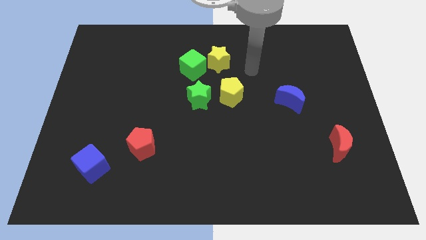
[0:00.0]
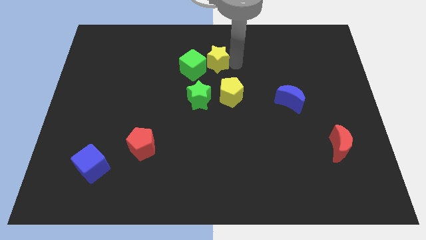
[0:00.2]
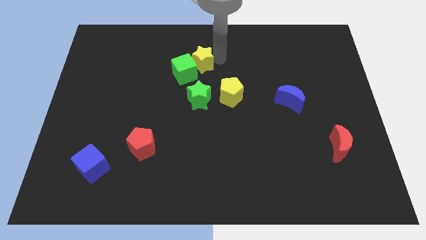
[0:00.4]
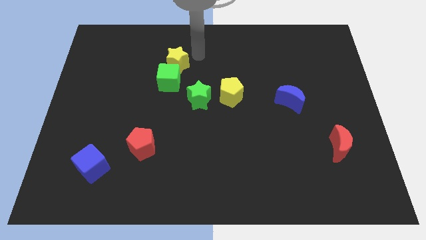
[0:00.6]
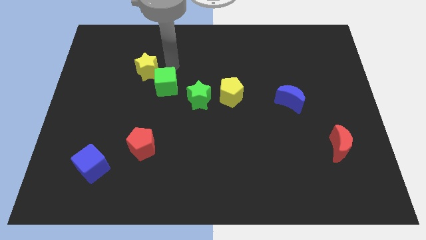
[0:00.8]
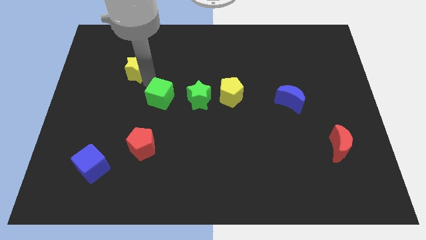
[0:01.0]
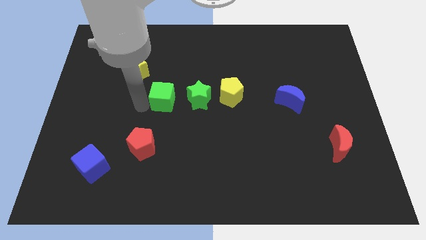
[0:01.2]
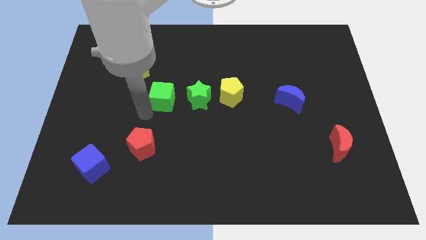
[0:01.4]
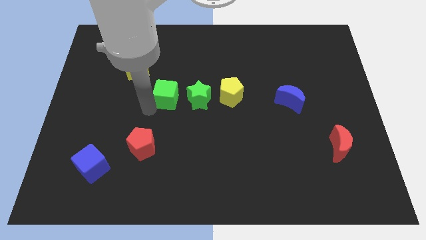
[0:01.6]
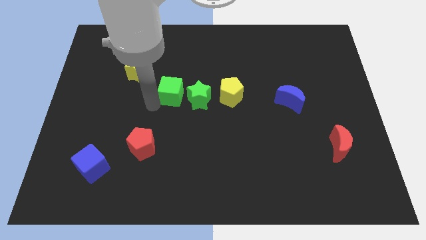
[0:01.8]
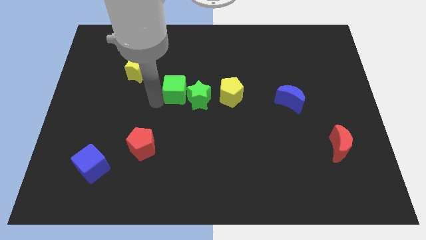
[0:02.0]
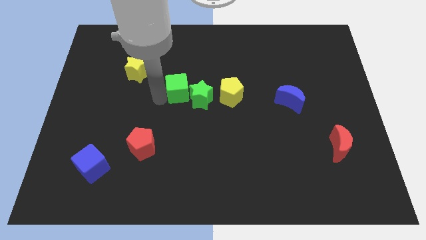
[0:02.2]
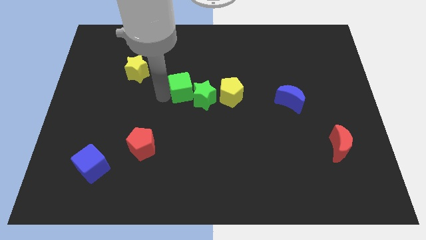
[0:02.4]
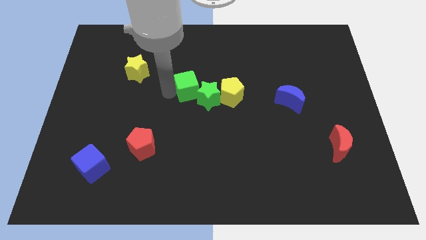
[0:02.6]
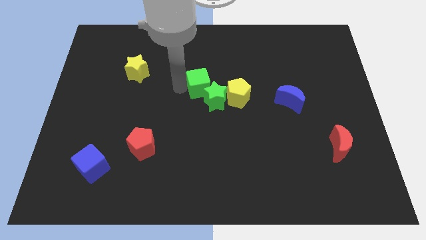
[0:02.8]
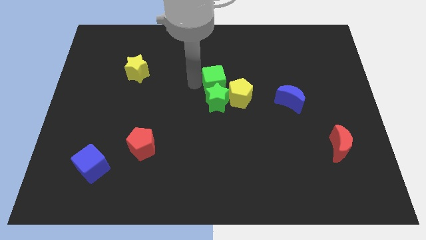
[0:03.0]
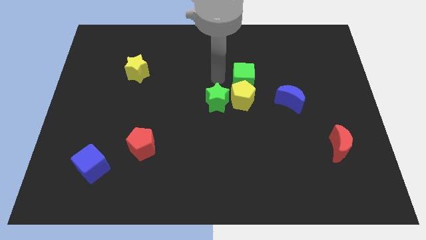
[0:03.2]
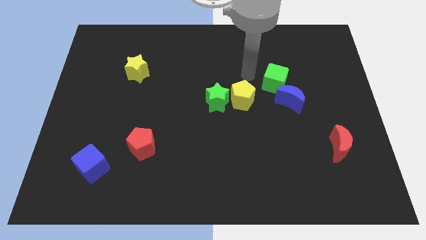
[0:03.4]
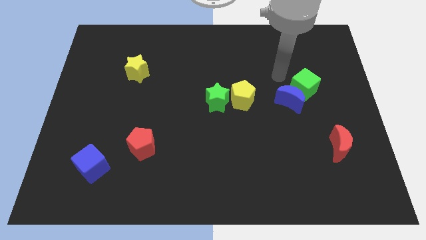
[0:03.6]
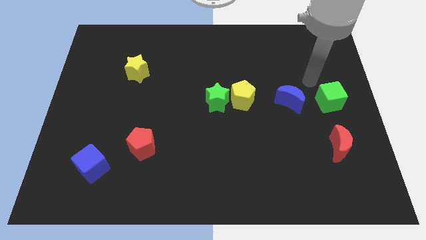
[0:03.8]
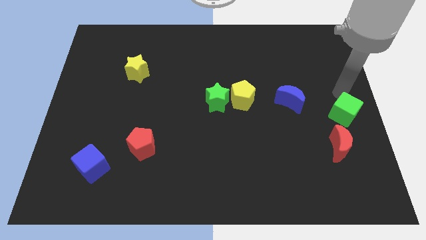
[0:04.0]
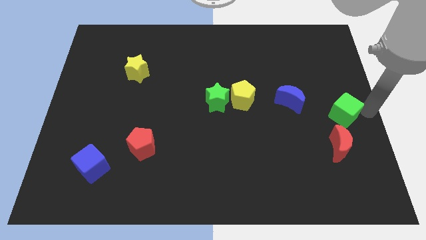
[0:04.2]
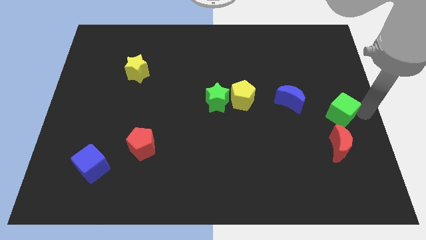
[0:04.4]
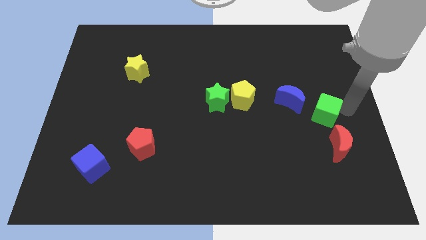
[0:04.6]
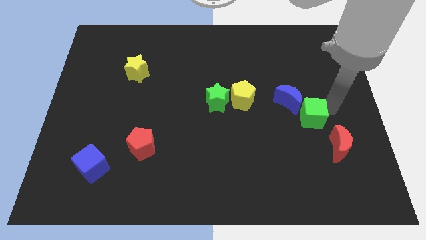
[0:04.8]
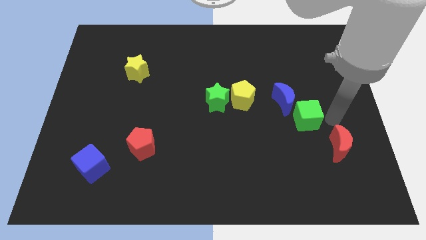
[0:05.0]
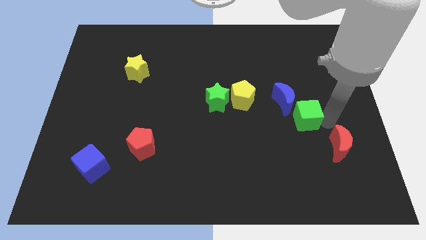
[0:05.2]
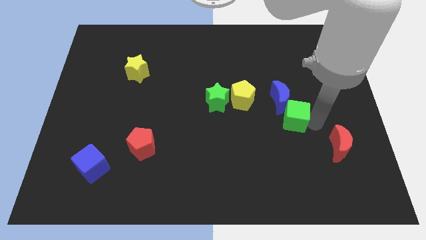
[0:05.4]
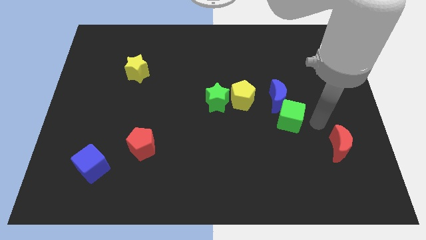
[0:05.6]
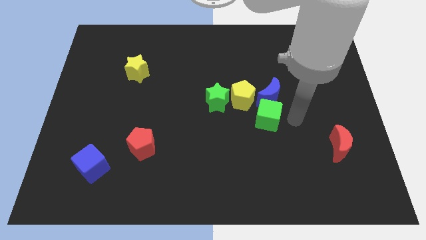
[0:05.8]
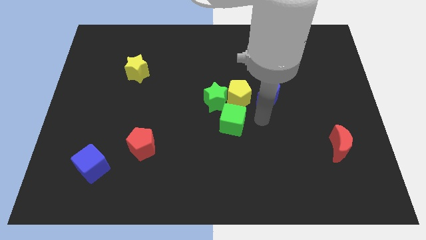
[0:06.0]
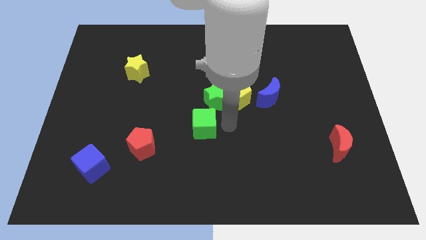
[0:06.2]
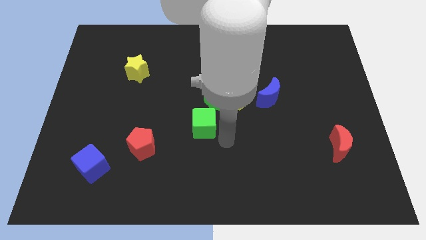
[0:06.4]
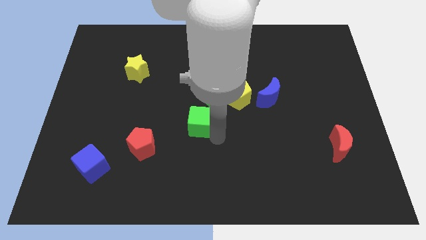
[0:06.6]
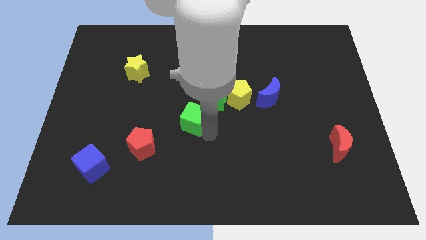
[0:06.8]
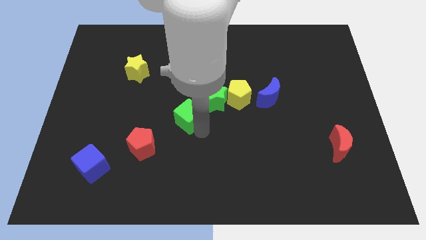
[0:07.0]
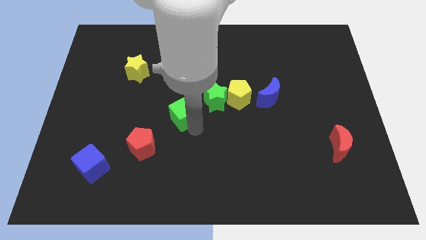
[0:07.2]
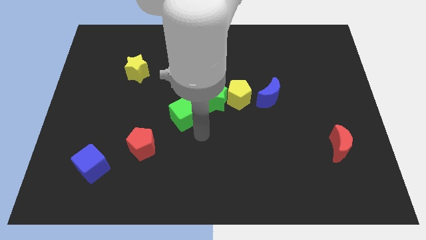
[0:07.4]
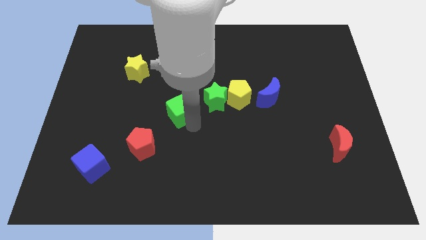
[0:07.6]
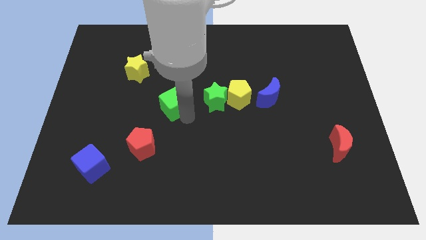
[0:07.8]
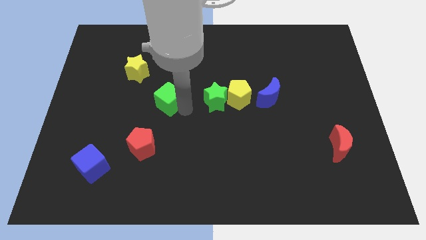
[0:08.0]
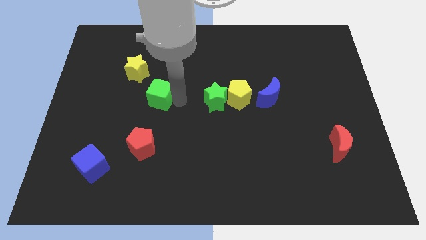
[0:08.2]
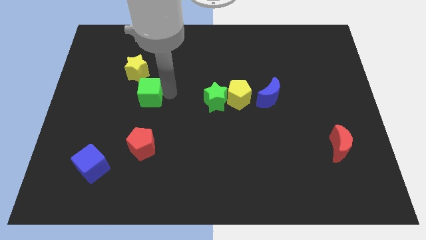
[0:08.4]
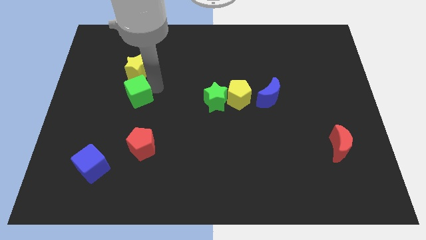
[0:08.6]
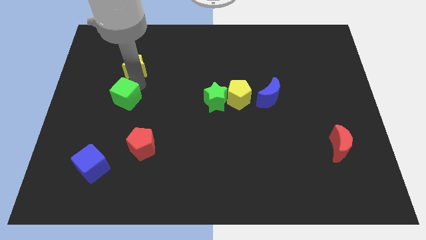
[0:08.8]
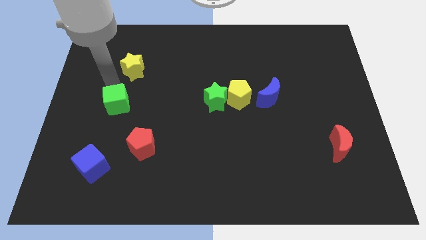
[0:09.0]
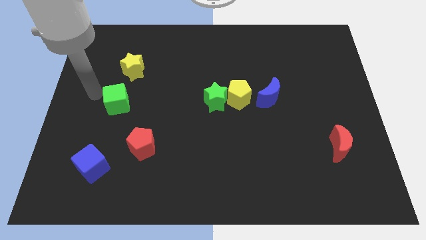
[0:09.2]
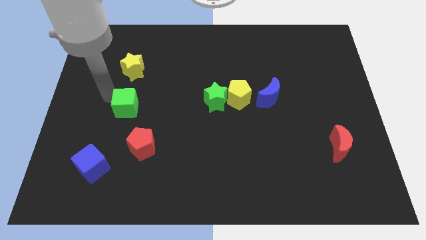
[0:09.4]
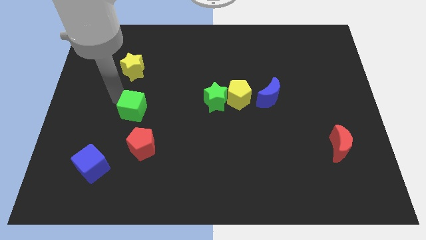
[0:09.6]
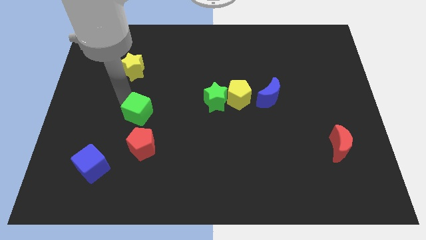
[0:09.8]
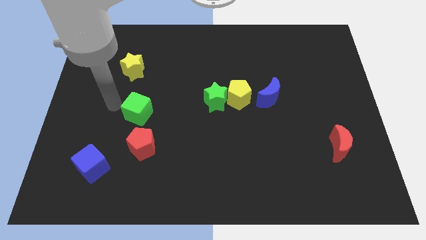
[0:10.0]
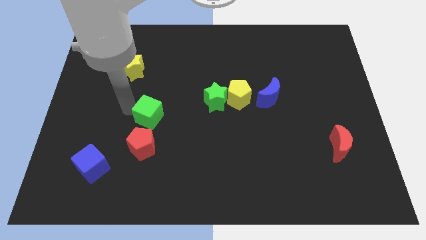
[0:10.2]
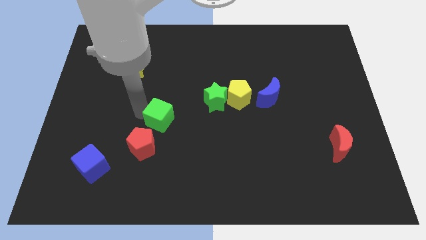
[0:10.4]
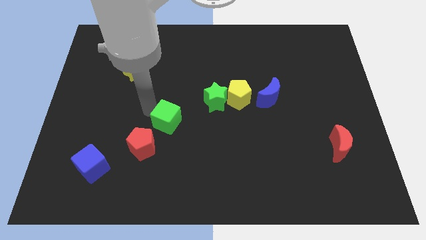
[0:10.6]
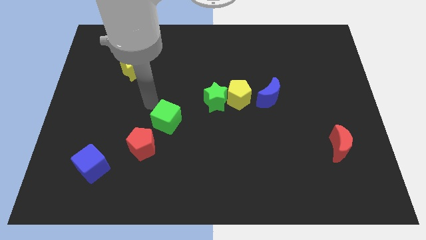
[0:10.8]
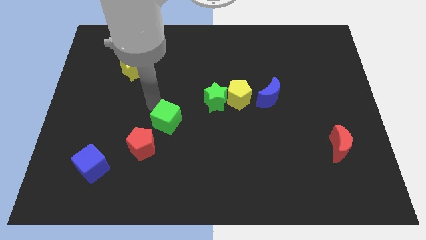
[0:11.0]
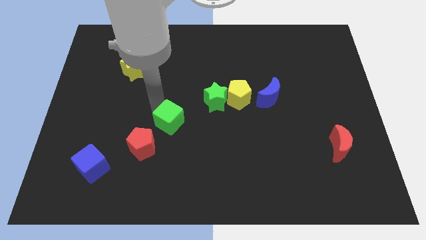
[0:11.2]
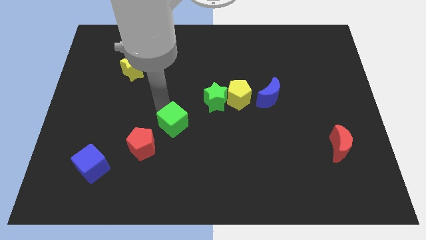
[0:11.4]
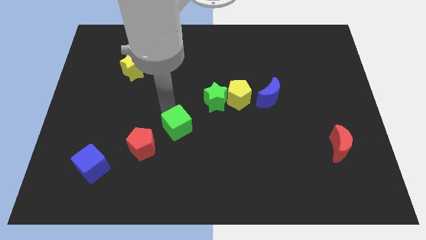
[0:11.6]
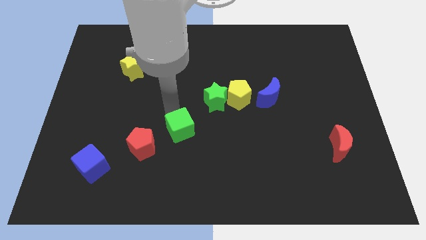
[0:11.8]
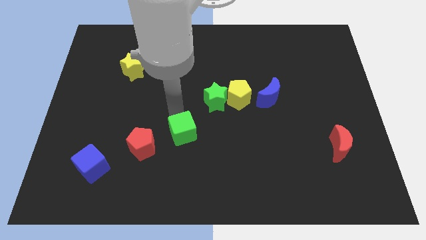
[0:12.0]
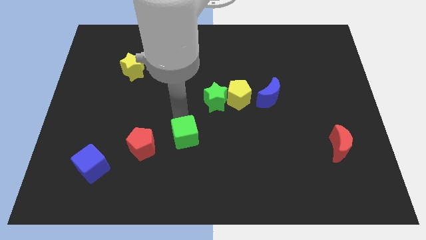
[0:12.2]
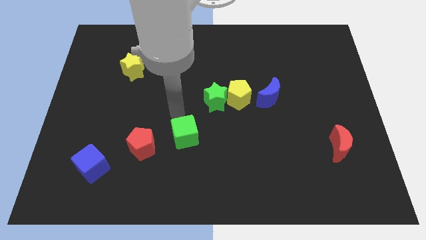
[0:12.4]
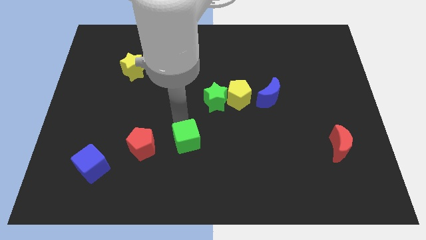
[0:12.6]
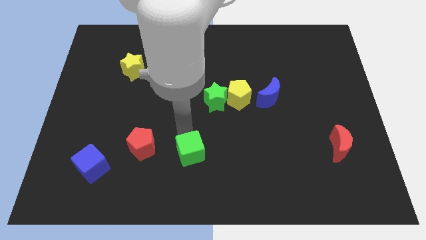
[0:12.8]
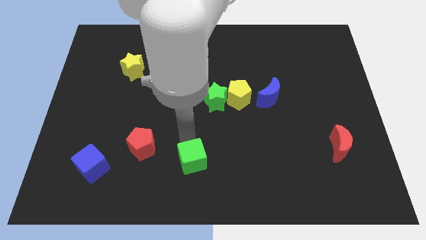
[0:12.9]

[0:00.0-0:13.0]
move the green cube to the bottom side

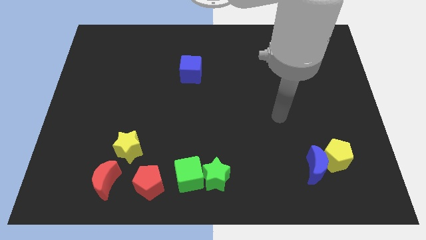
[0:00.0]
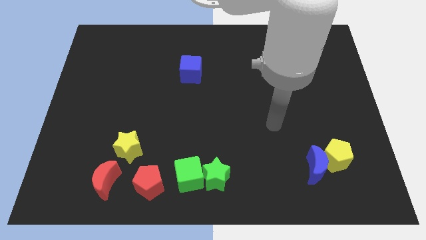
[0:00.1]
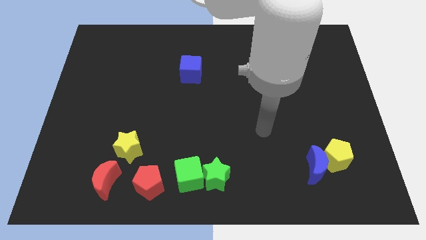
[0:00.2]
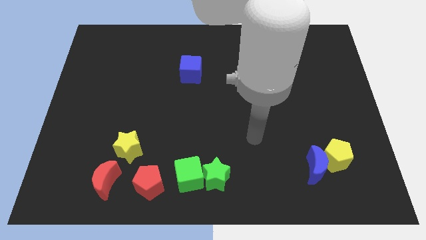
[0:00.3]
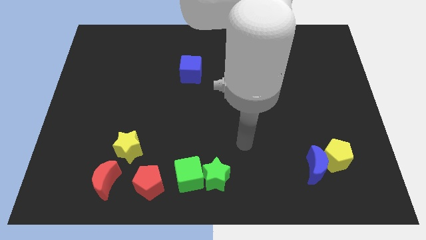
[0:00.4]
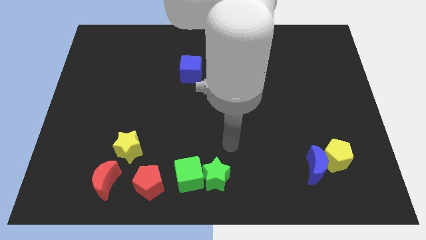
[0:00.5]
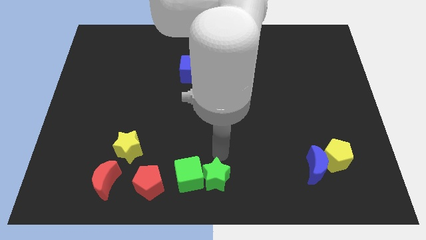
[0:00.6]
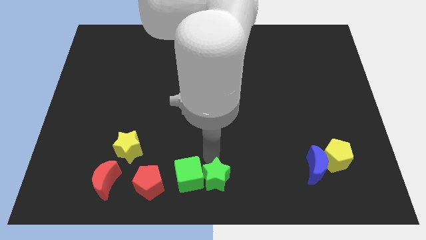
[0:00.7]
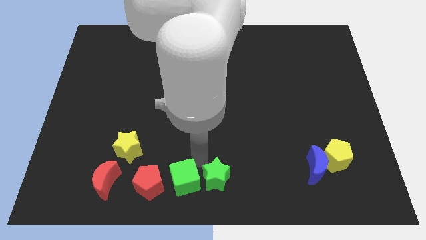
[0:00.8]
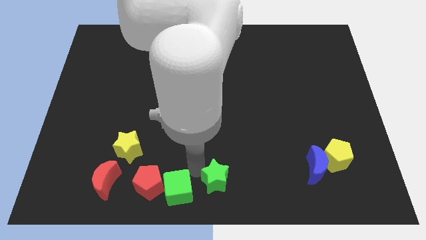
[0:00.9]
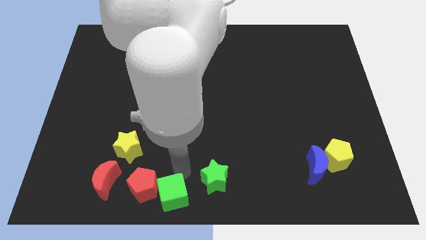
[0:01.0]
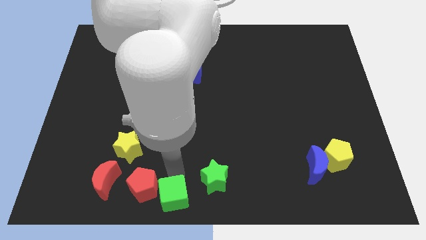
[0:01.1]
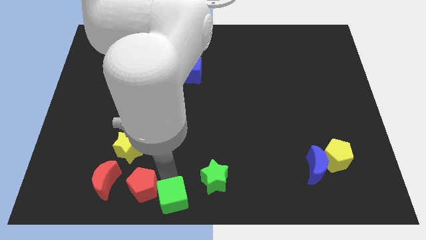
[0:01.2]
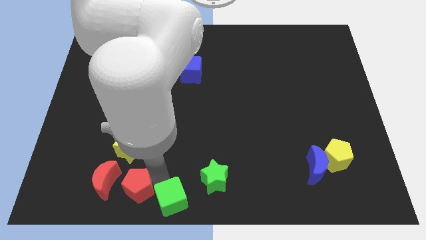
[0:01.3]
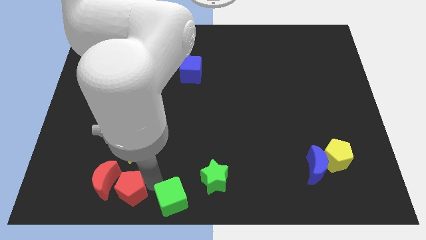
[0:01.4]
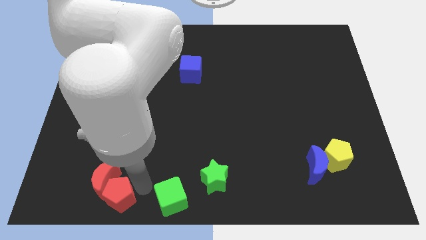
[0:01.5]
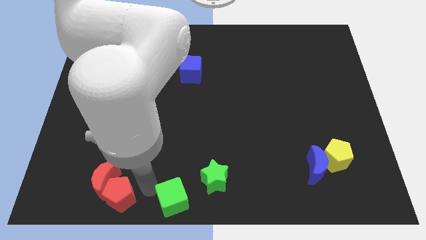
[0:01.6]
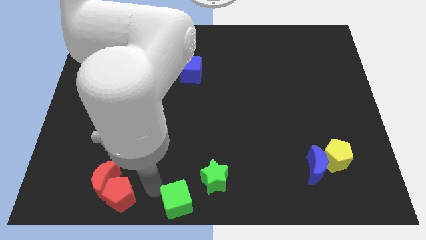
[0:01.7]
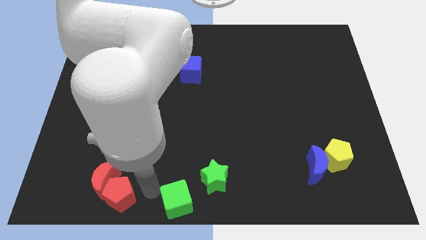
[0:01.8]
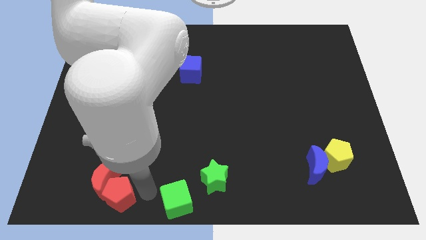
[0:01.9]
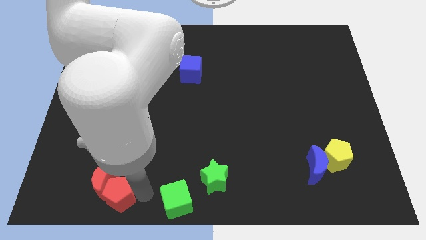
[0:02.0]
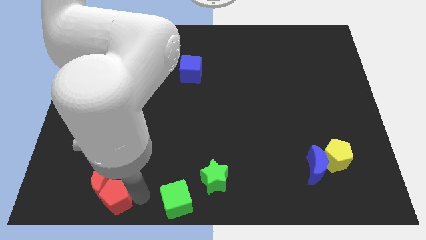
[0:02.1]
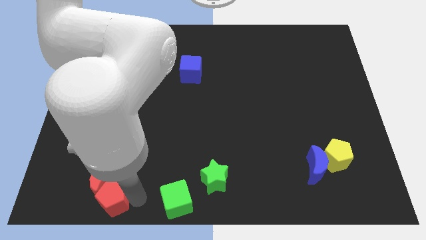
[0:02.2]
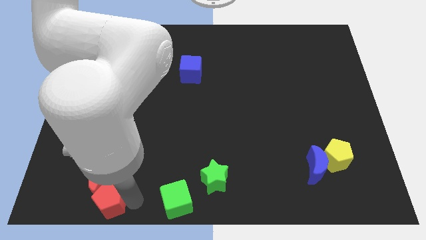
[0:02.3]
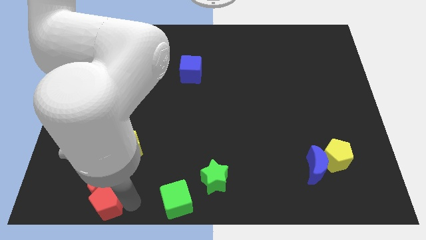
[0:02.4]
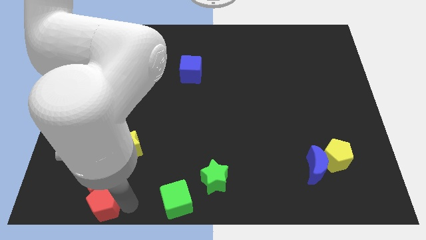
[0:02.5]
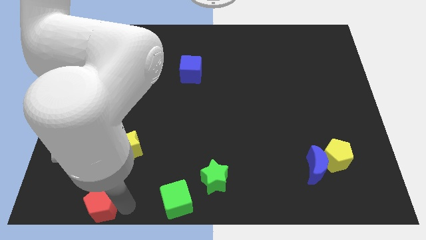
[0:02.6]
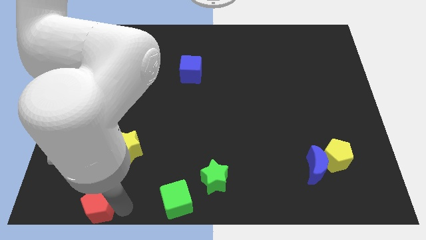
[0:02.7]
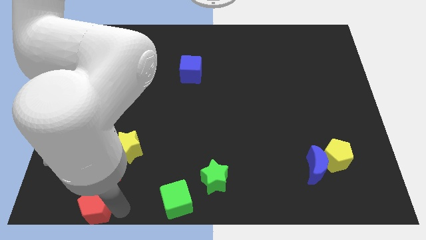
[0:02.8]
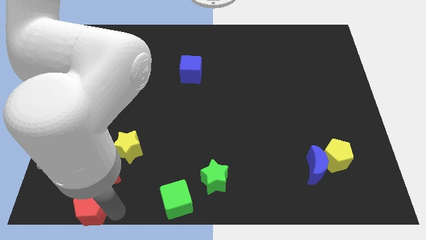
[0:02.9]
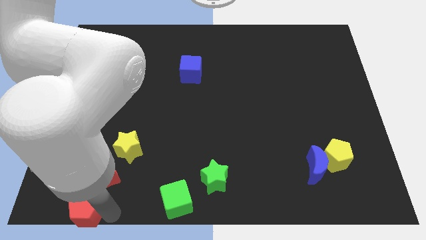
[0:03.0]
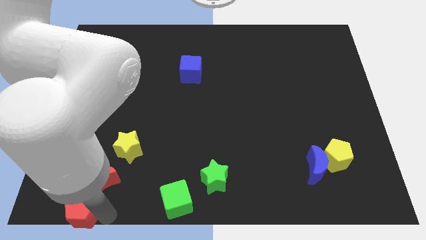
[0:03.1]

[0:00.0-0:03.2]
move the red pentagon to the bottom left
